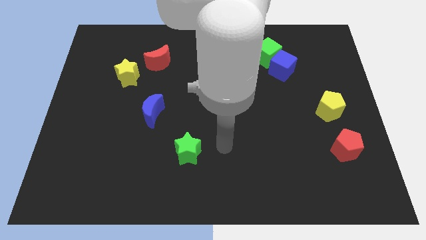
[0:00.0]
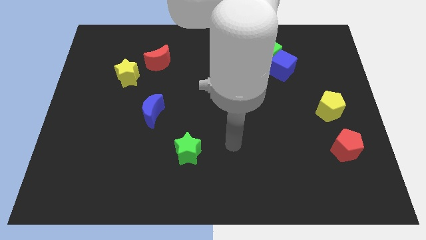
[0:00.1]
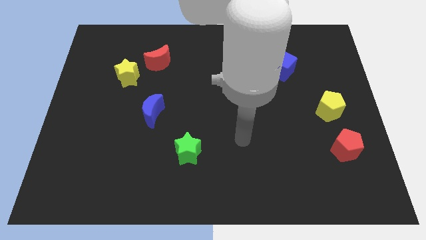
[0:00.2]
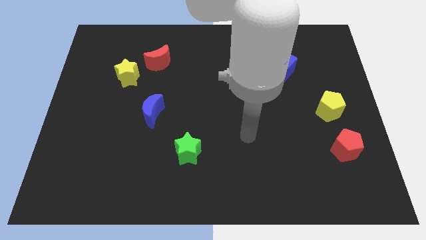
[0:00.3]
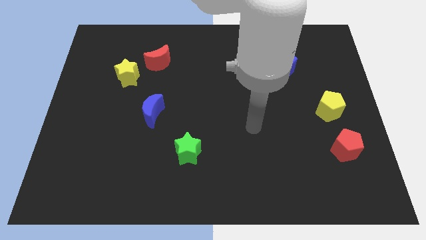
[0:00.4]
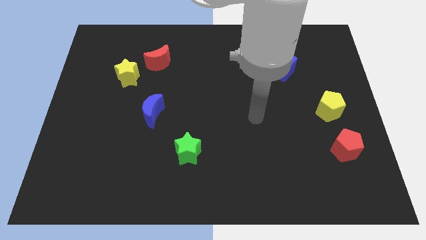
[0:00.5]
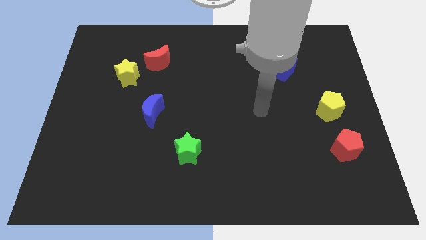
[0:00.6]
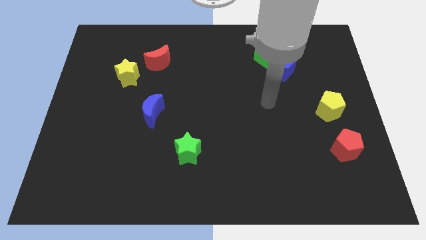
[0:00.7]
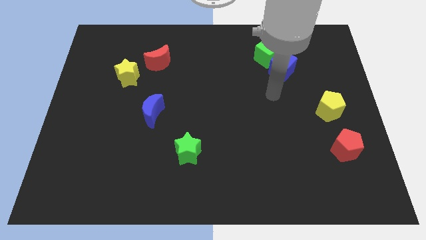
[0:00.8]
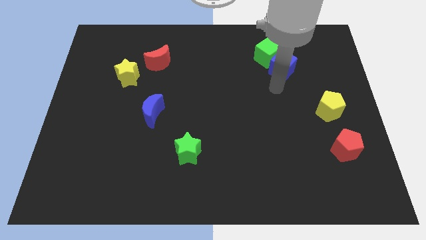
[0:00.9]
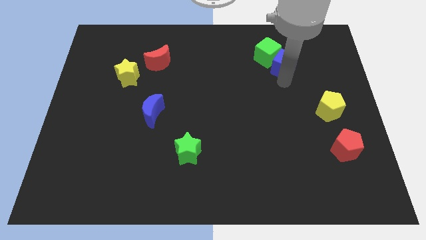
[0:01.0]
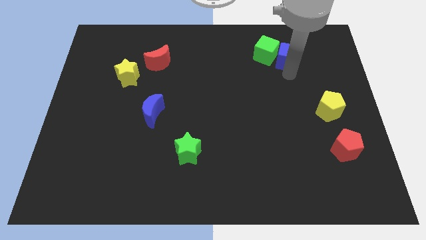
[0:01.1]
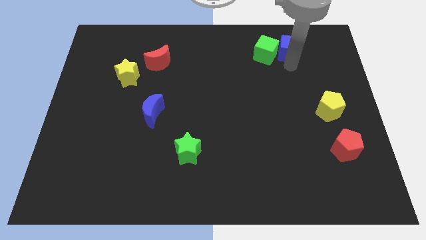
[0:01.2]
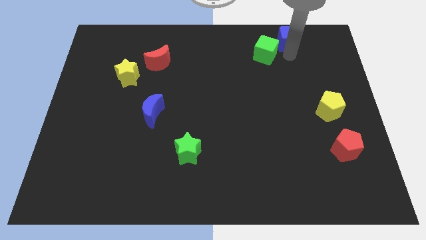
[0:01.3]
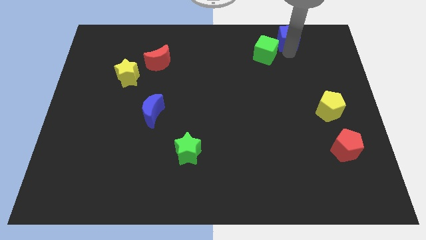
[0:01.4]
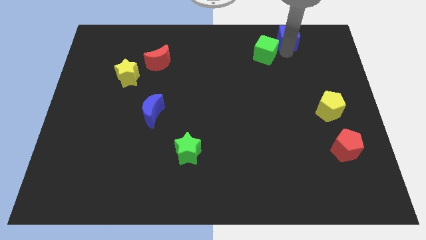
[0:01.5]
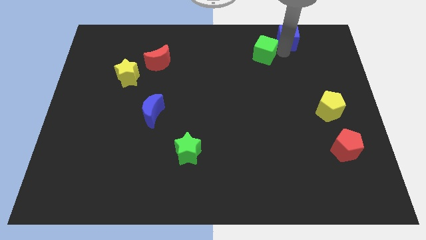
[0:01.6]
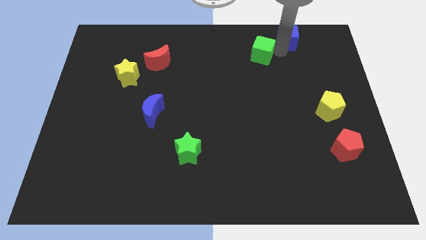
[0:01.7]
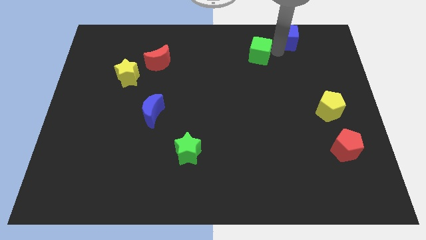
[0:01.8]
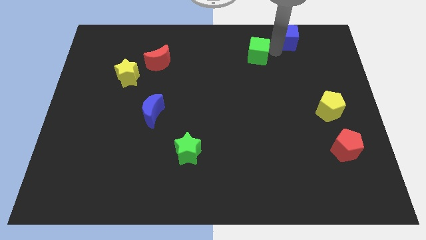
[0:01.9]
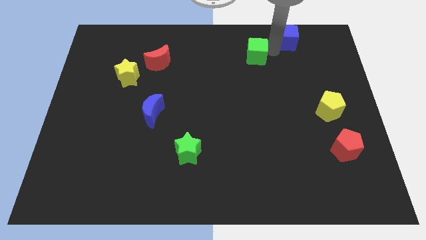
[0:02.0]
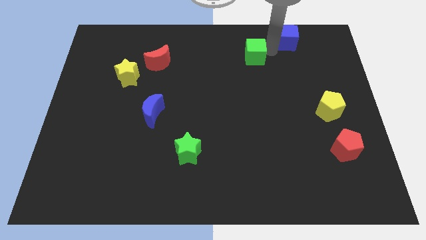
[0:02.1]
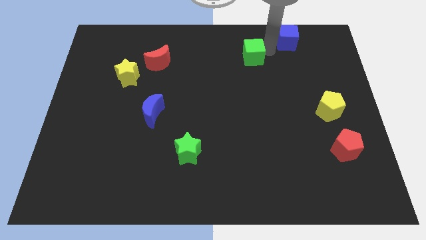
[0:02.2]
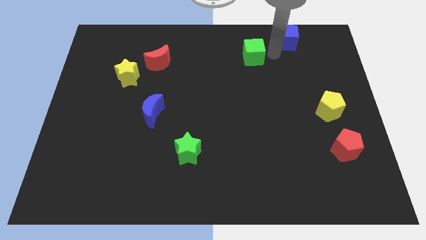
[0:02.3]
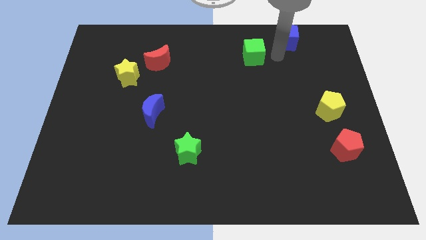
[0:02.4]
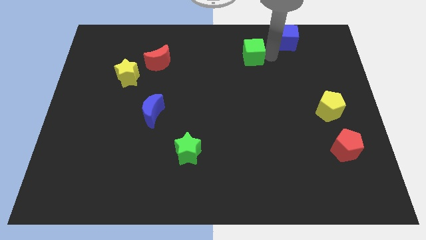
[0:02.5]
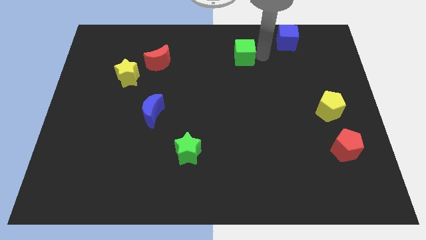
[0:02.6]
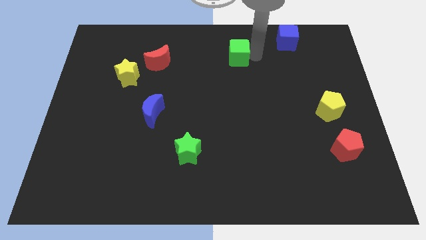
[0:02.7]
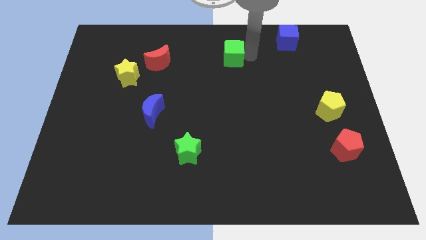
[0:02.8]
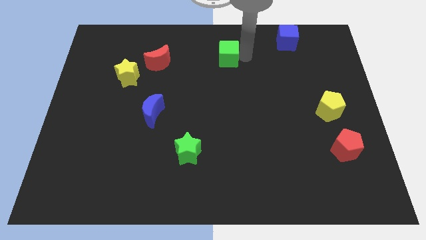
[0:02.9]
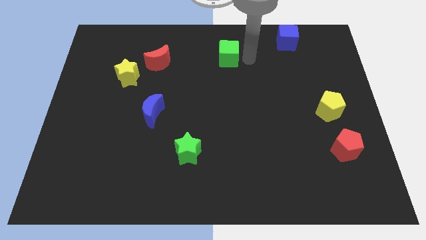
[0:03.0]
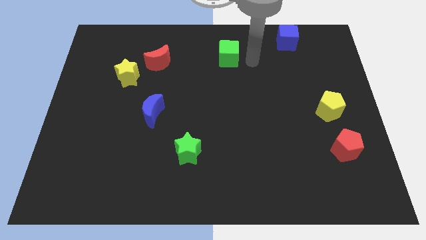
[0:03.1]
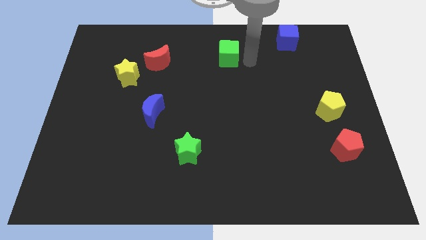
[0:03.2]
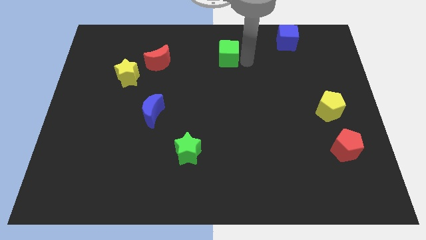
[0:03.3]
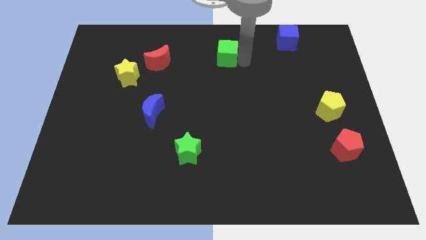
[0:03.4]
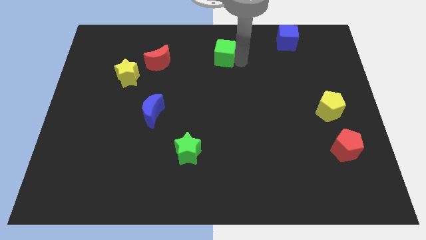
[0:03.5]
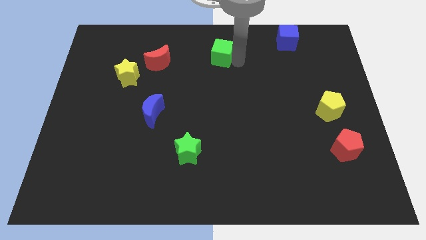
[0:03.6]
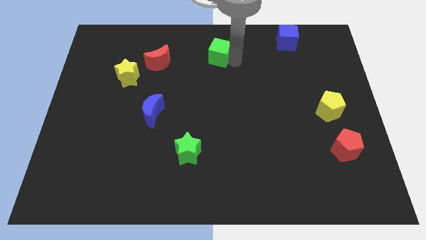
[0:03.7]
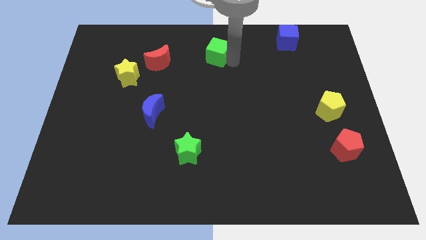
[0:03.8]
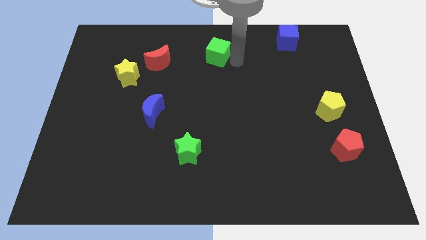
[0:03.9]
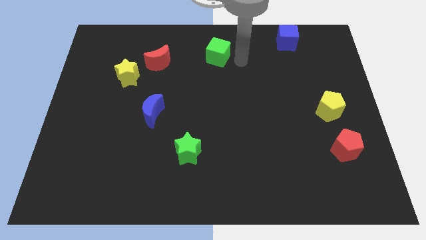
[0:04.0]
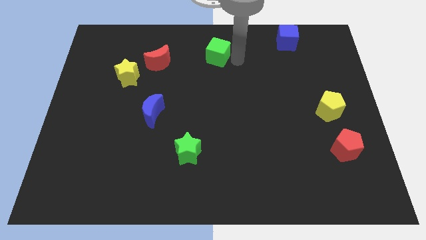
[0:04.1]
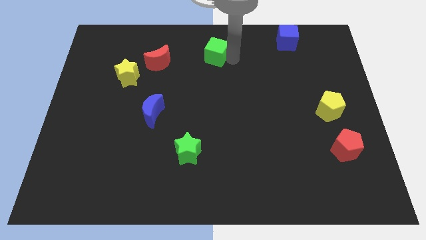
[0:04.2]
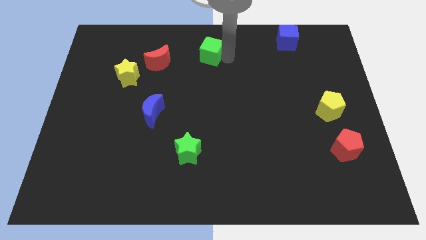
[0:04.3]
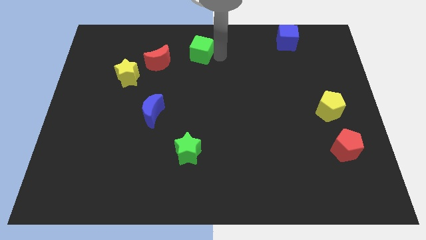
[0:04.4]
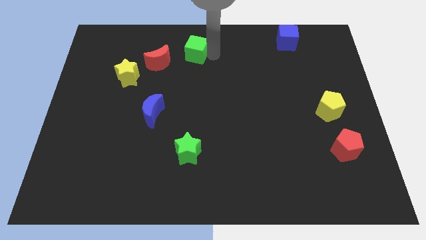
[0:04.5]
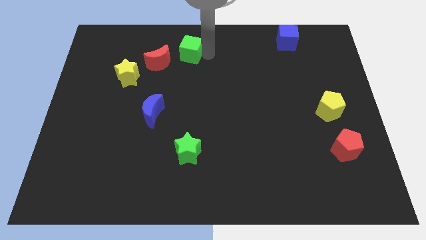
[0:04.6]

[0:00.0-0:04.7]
push the green cube left

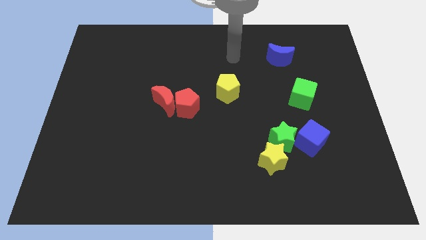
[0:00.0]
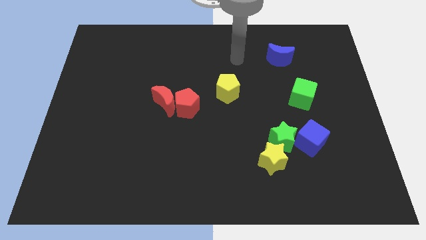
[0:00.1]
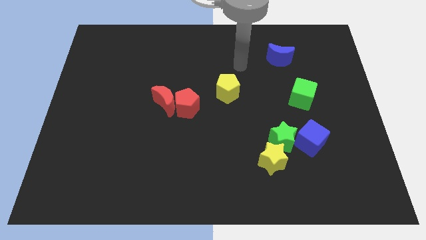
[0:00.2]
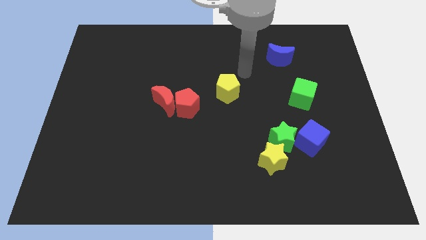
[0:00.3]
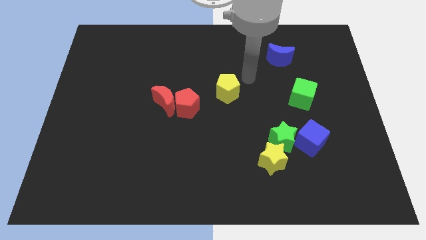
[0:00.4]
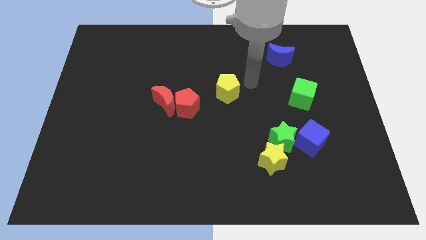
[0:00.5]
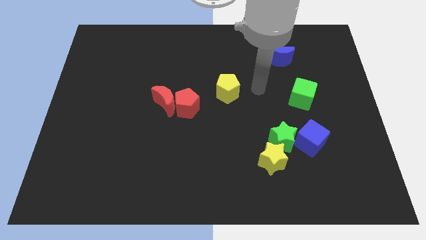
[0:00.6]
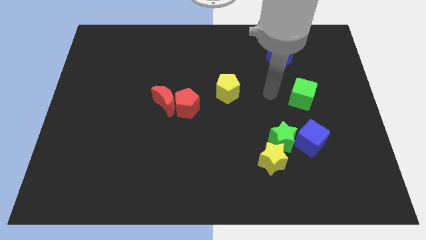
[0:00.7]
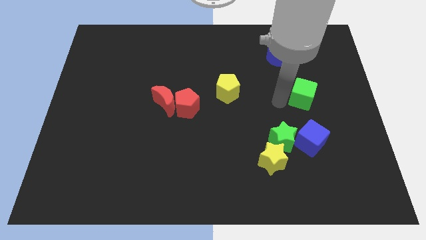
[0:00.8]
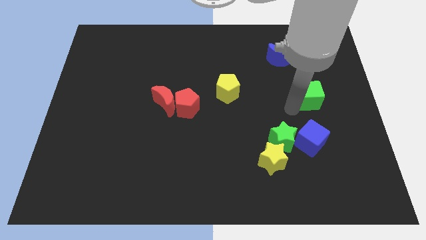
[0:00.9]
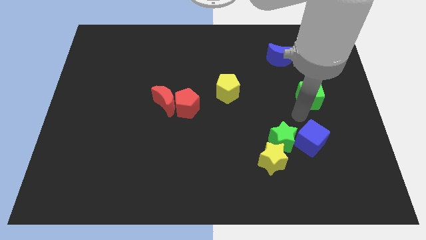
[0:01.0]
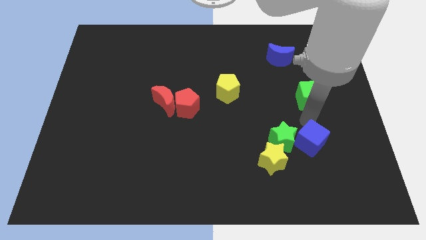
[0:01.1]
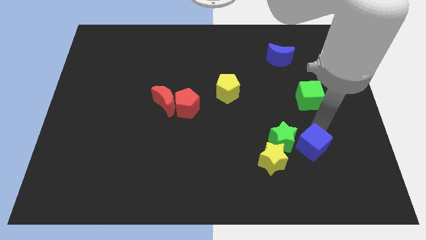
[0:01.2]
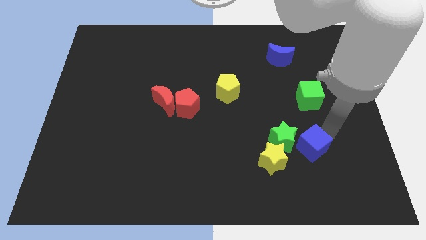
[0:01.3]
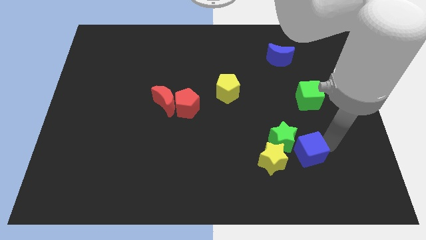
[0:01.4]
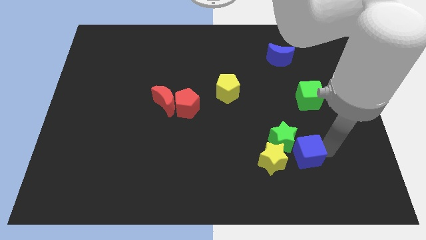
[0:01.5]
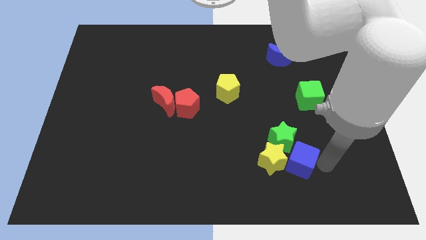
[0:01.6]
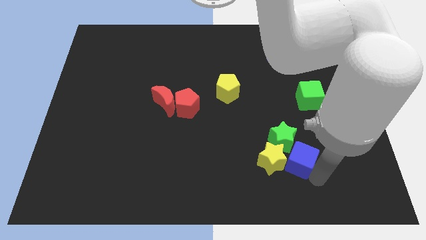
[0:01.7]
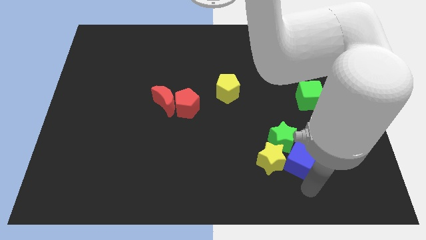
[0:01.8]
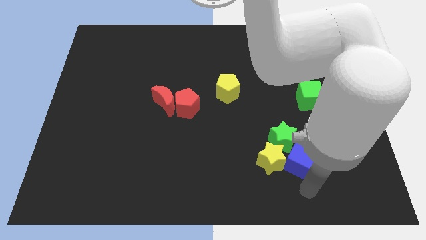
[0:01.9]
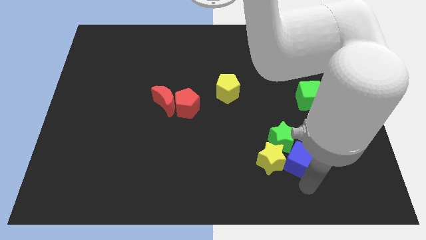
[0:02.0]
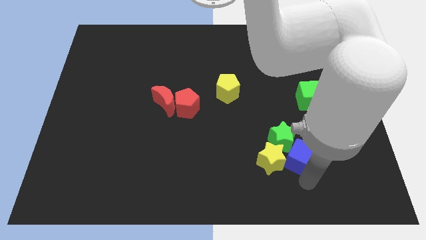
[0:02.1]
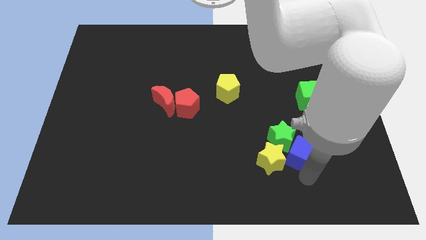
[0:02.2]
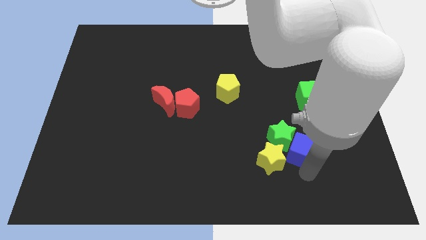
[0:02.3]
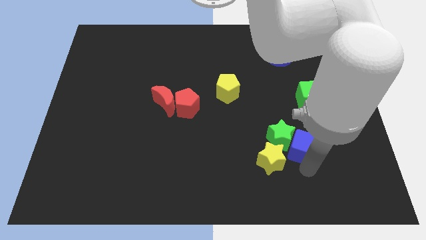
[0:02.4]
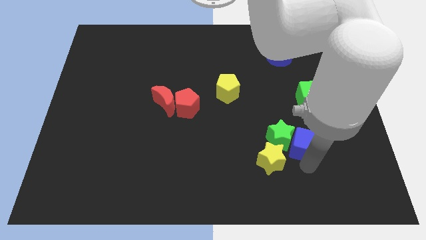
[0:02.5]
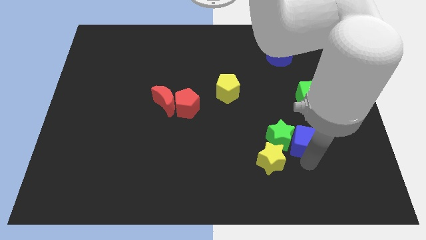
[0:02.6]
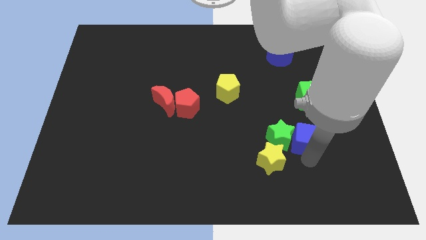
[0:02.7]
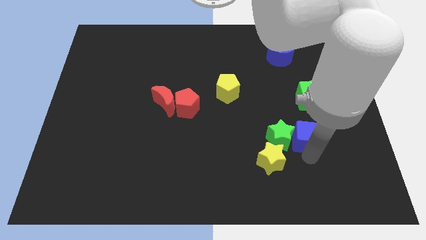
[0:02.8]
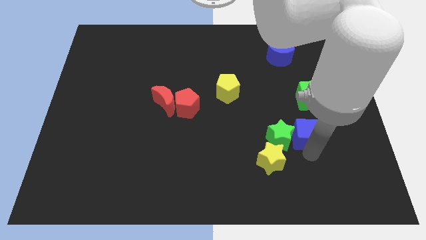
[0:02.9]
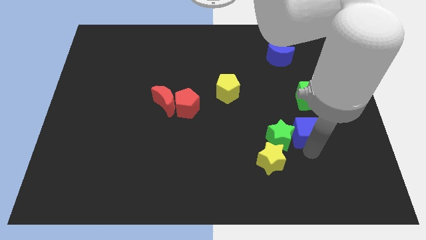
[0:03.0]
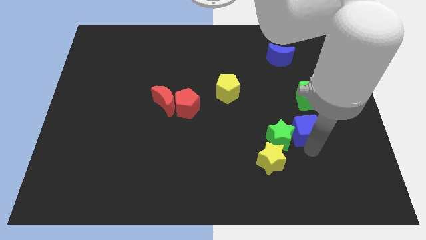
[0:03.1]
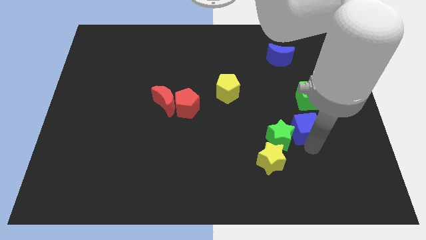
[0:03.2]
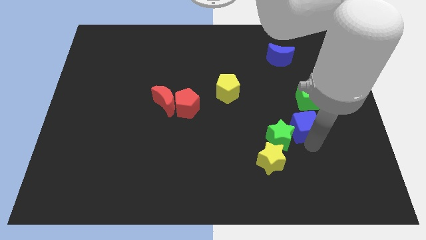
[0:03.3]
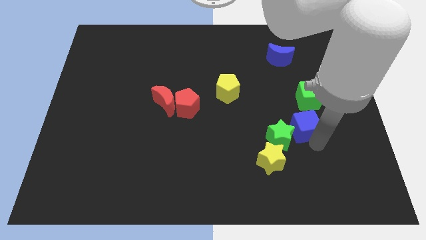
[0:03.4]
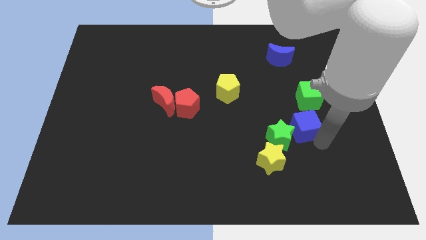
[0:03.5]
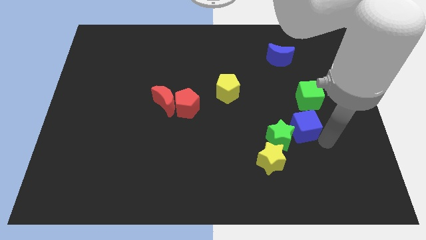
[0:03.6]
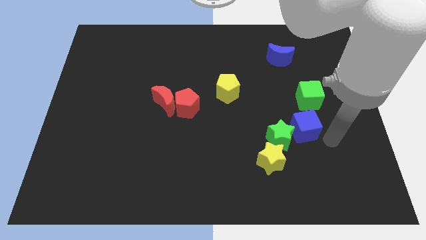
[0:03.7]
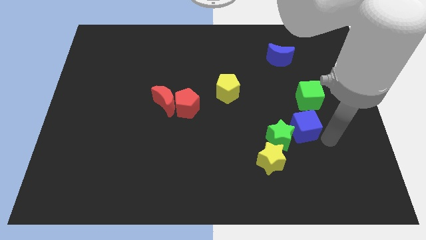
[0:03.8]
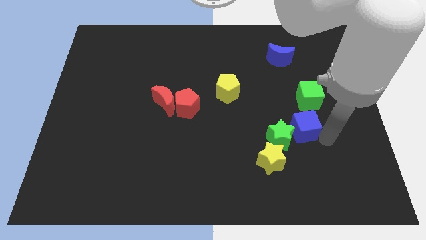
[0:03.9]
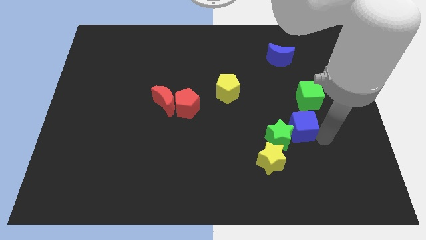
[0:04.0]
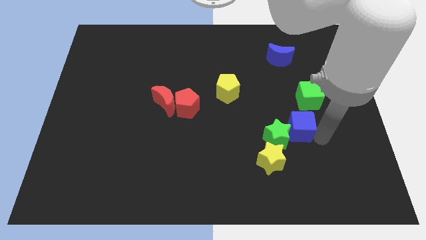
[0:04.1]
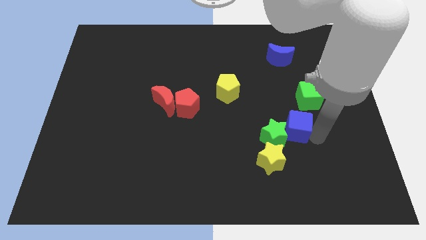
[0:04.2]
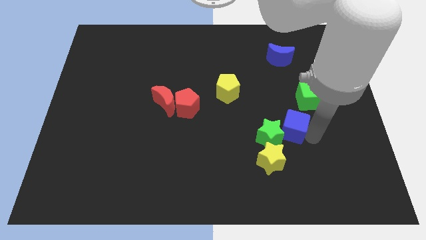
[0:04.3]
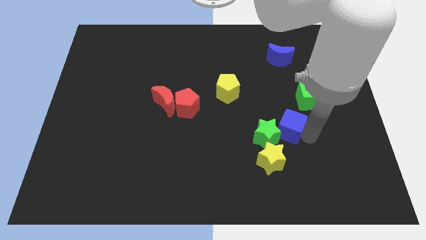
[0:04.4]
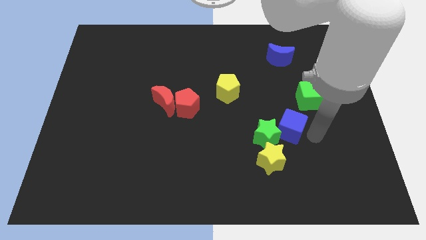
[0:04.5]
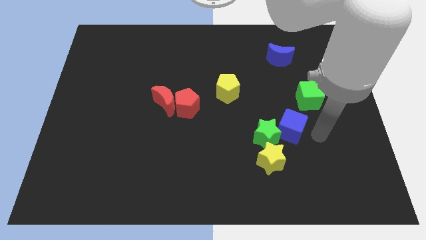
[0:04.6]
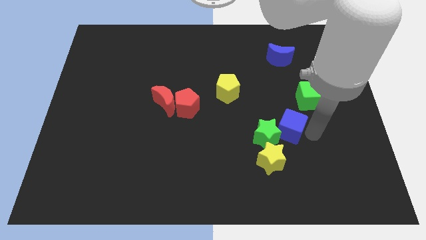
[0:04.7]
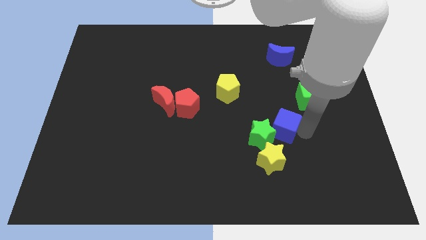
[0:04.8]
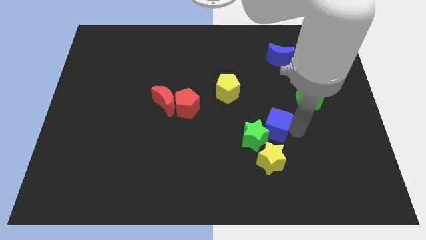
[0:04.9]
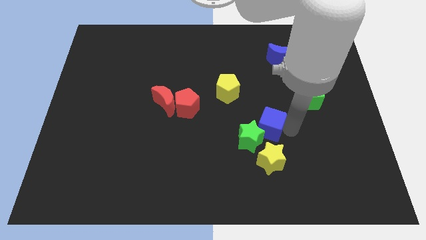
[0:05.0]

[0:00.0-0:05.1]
slightly slide the blue cube left
